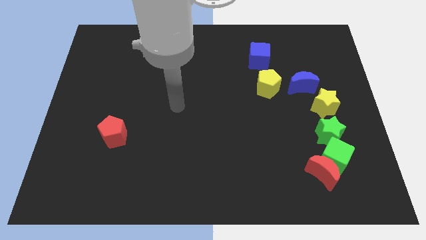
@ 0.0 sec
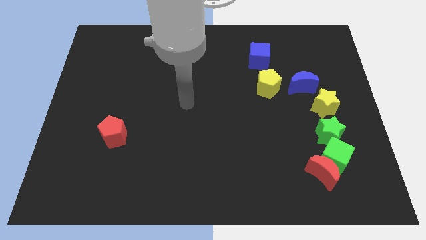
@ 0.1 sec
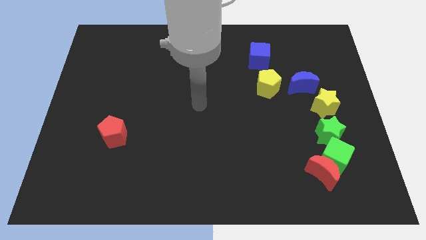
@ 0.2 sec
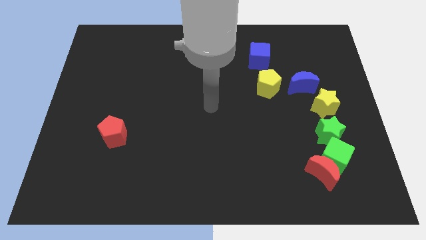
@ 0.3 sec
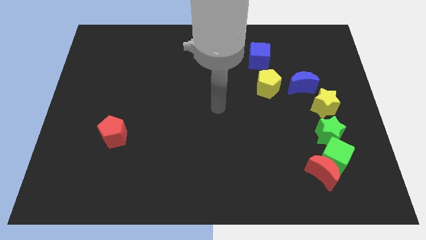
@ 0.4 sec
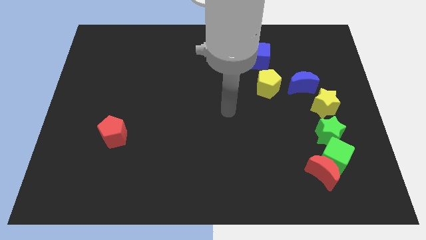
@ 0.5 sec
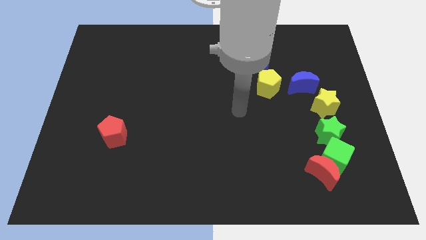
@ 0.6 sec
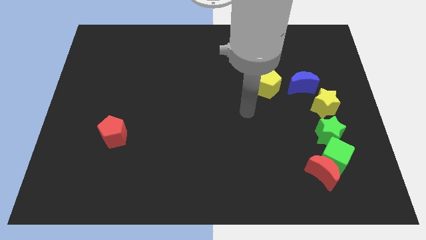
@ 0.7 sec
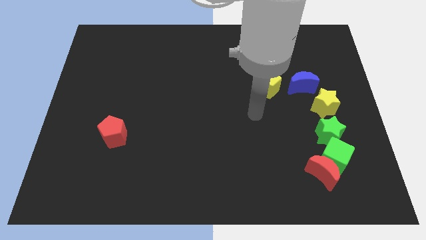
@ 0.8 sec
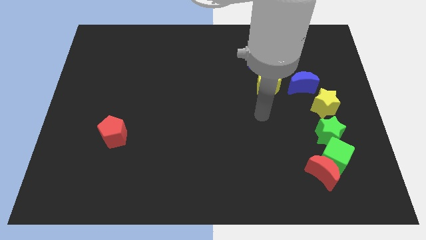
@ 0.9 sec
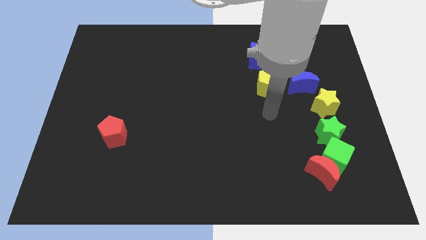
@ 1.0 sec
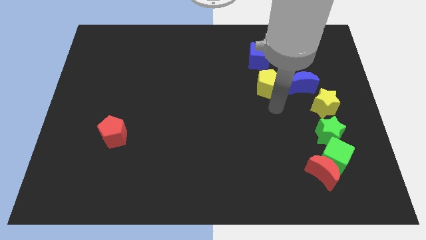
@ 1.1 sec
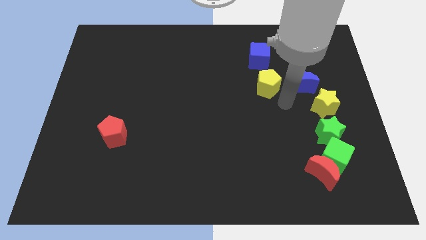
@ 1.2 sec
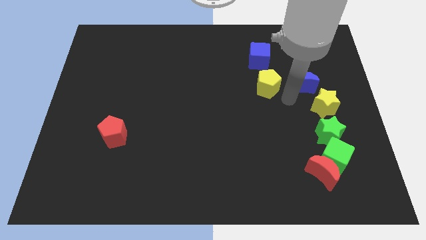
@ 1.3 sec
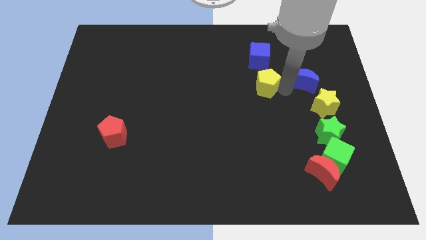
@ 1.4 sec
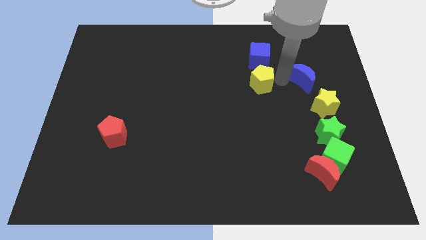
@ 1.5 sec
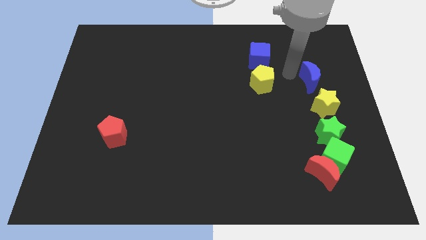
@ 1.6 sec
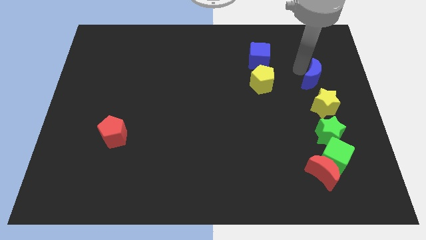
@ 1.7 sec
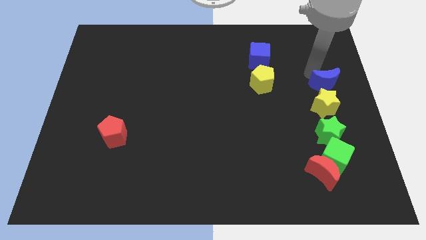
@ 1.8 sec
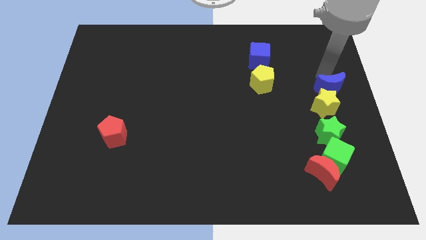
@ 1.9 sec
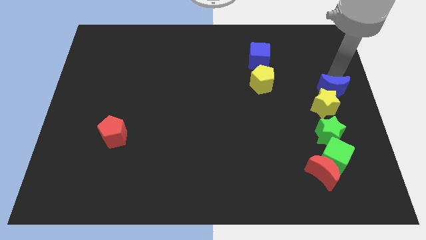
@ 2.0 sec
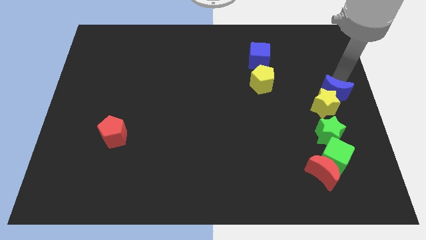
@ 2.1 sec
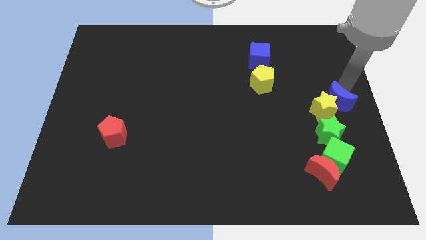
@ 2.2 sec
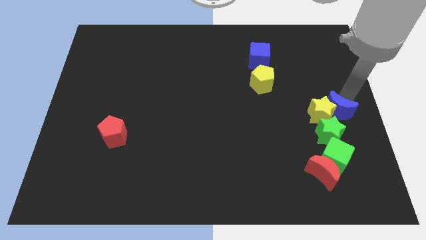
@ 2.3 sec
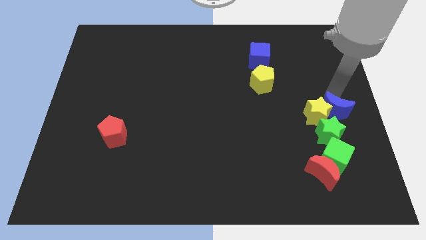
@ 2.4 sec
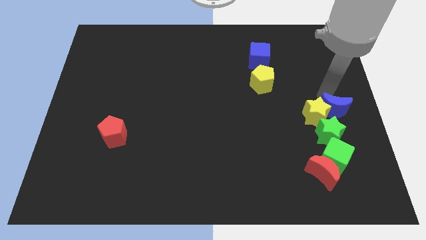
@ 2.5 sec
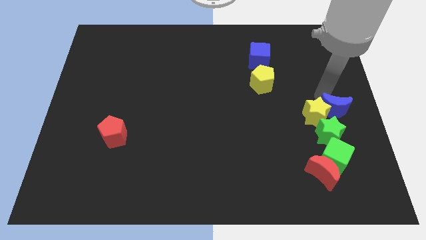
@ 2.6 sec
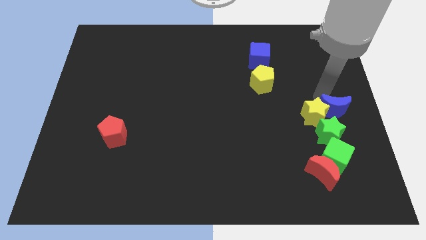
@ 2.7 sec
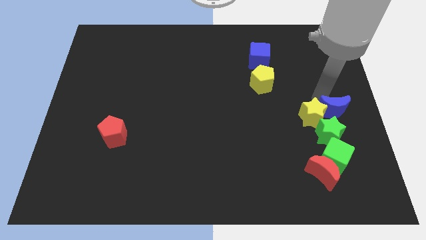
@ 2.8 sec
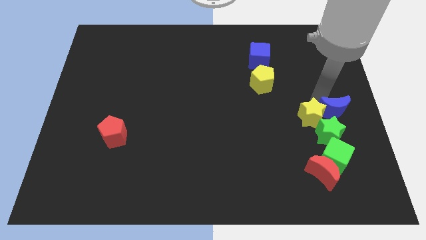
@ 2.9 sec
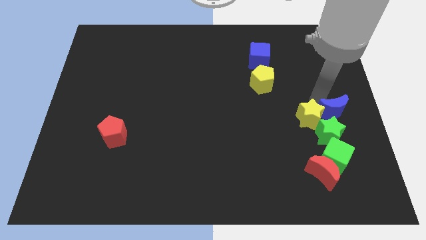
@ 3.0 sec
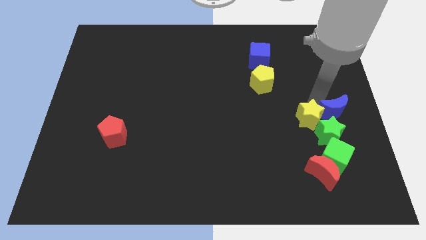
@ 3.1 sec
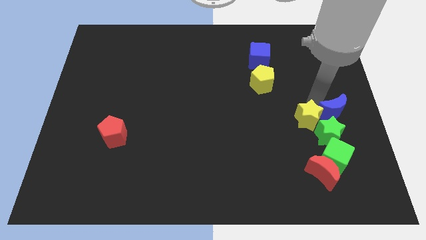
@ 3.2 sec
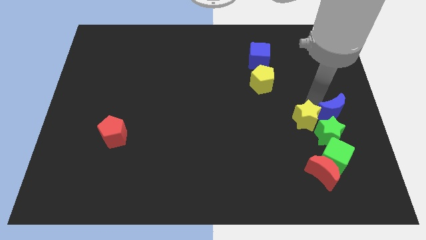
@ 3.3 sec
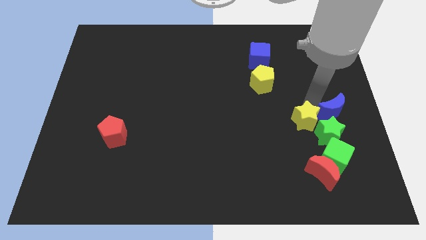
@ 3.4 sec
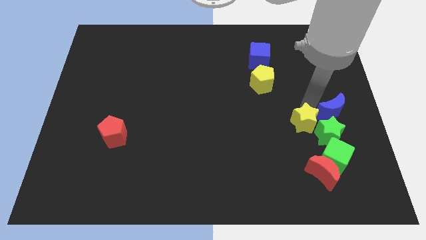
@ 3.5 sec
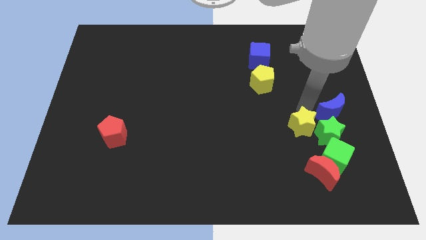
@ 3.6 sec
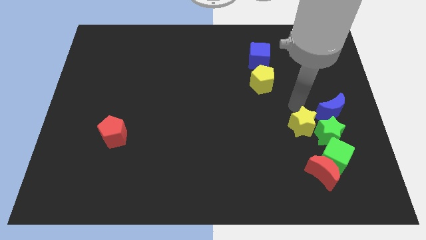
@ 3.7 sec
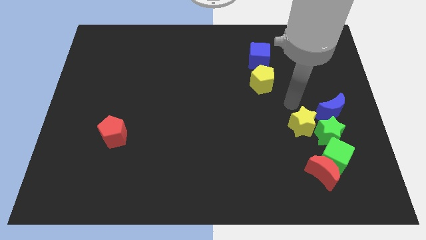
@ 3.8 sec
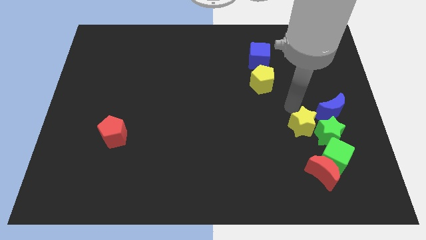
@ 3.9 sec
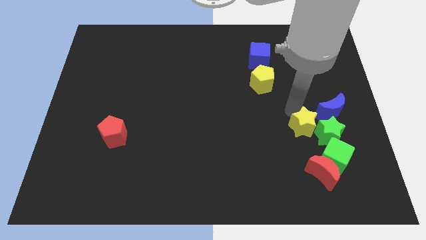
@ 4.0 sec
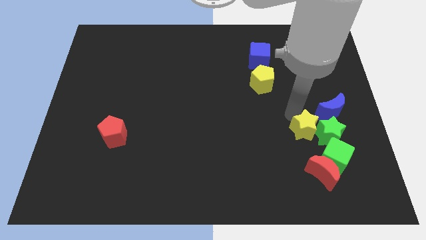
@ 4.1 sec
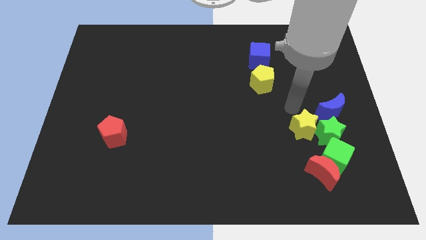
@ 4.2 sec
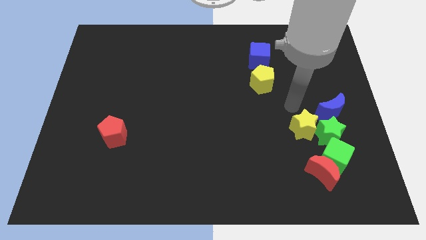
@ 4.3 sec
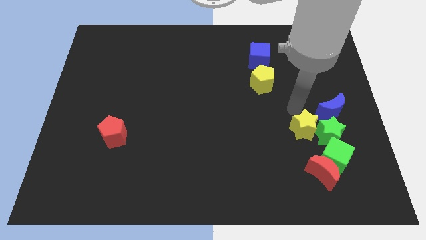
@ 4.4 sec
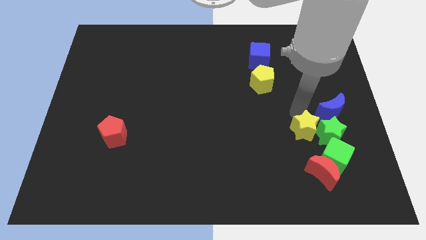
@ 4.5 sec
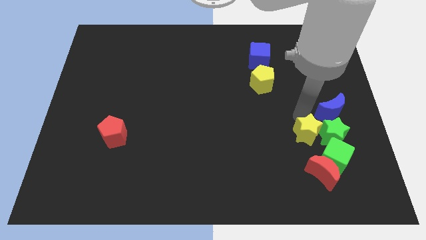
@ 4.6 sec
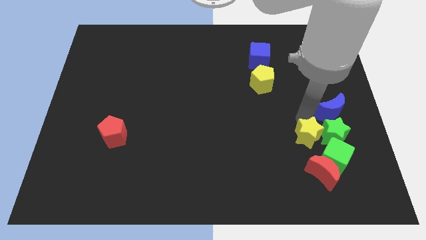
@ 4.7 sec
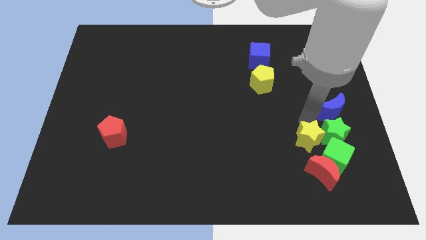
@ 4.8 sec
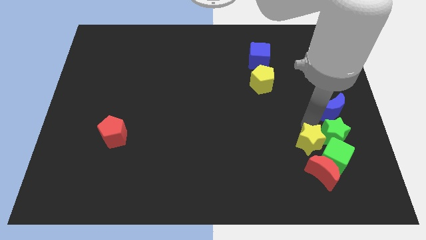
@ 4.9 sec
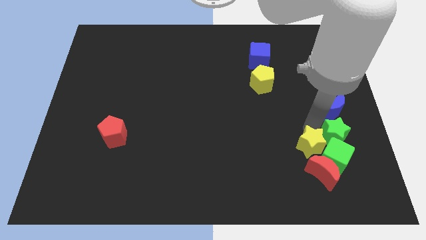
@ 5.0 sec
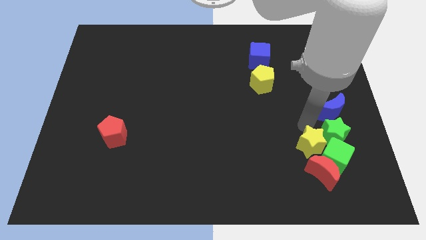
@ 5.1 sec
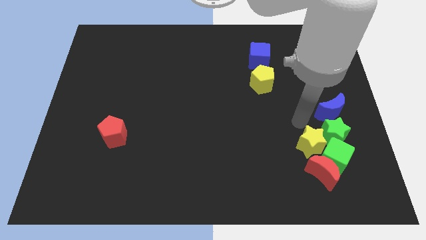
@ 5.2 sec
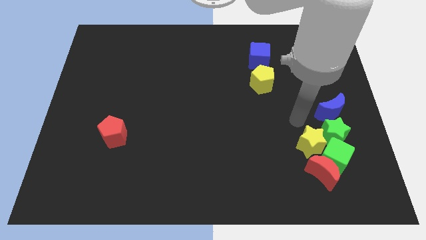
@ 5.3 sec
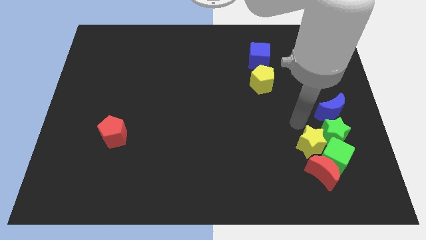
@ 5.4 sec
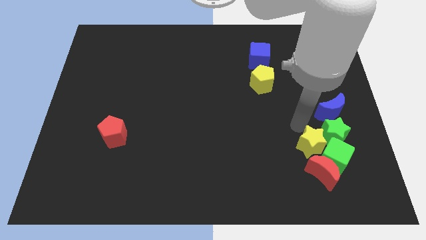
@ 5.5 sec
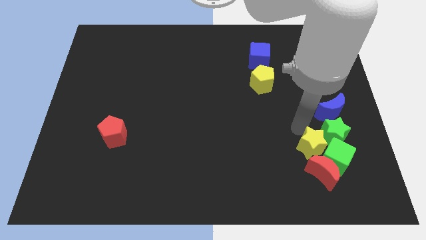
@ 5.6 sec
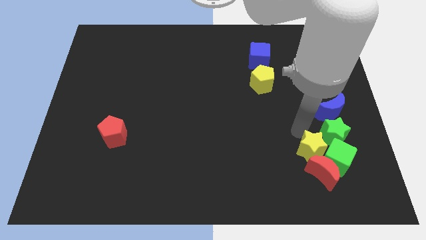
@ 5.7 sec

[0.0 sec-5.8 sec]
move the yellow star next to the red moon

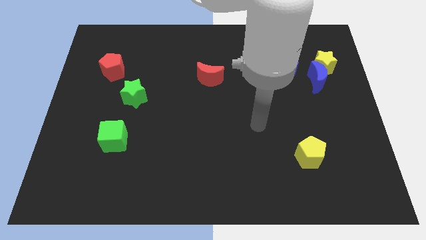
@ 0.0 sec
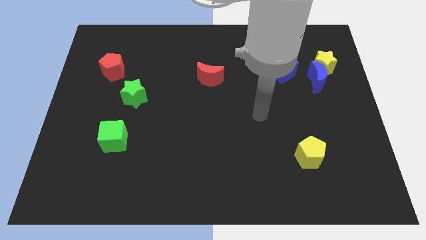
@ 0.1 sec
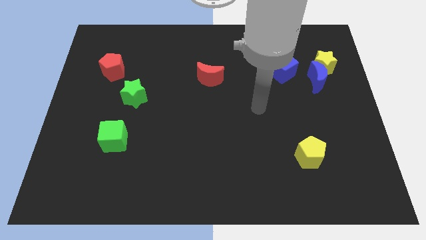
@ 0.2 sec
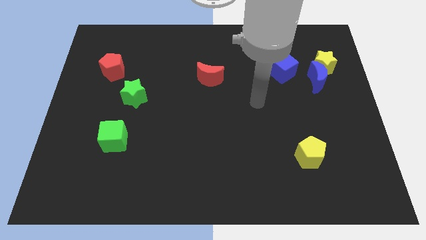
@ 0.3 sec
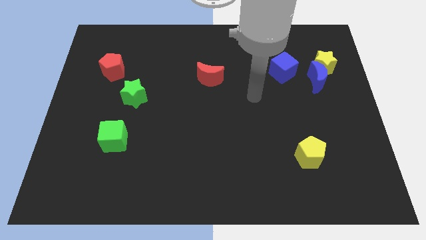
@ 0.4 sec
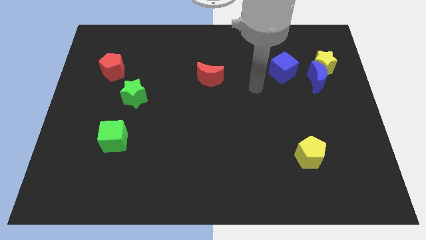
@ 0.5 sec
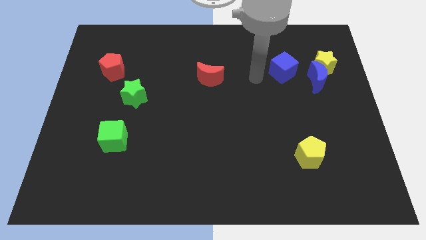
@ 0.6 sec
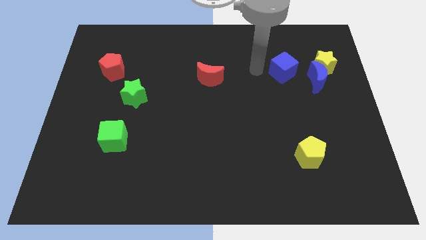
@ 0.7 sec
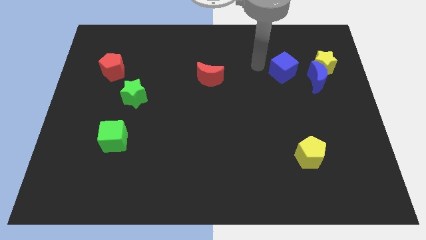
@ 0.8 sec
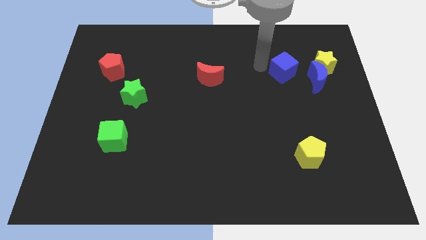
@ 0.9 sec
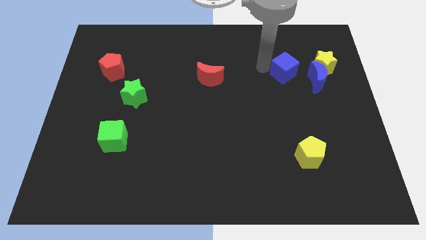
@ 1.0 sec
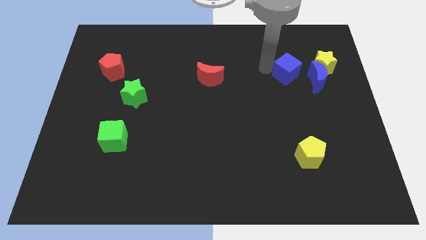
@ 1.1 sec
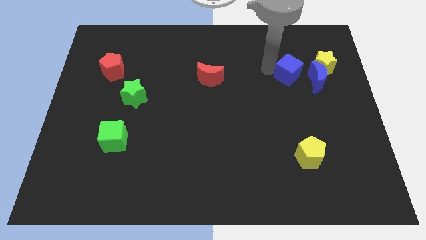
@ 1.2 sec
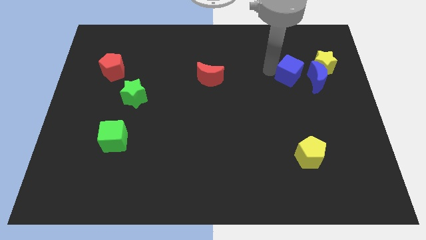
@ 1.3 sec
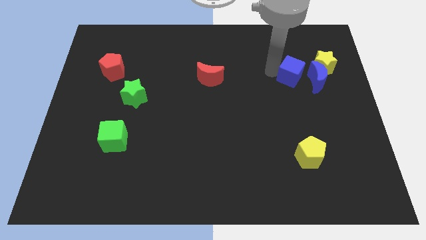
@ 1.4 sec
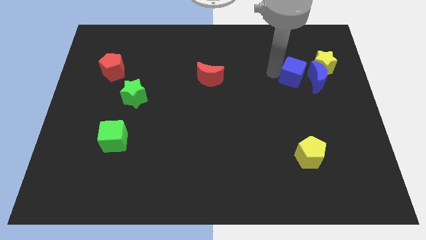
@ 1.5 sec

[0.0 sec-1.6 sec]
put the blue cube to the blue moon
